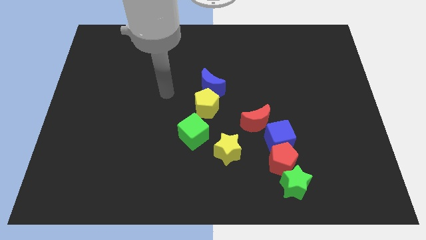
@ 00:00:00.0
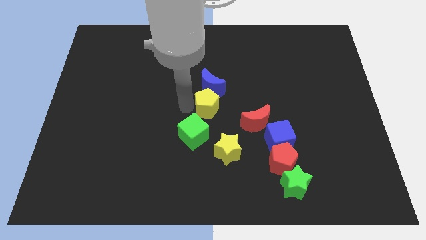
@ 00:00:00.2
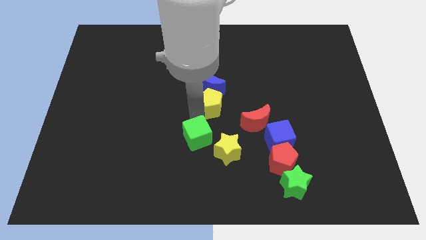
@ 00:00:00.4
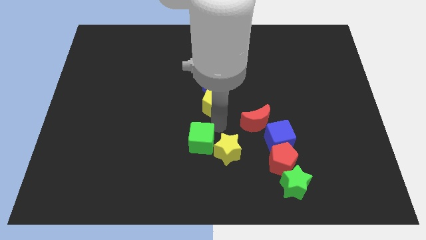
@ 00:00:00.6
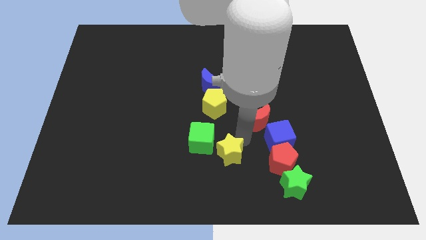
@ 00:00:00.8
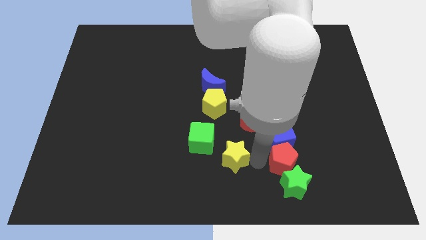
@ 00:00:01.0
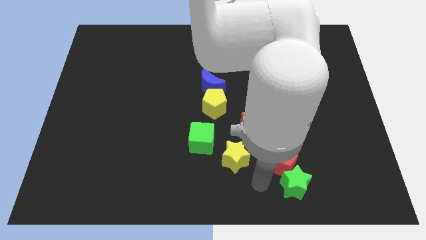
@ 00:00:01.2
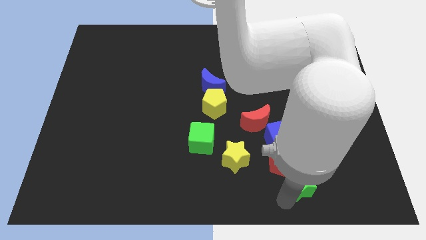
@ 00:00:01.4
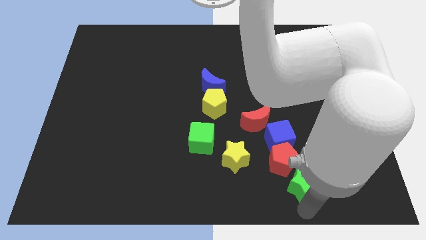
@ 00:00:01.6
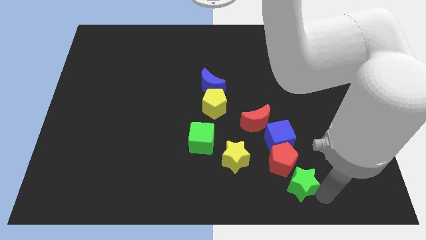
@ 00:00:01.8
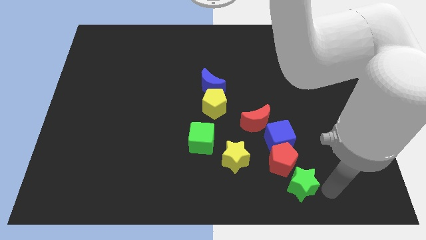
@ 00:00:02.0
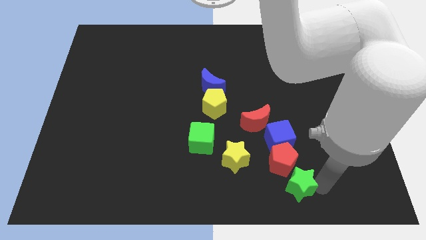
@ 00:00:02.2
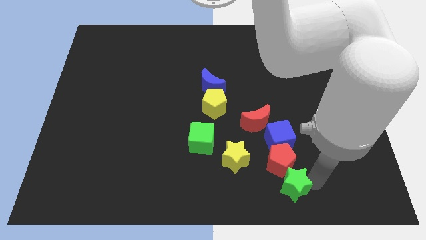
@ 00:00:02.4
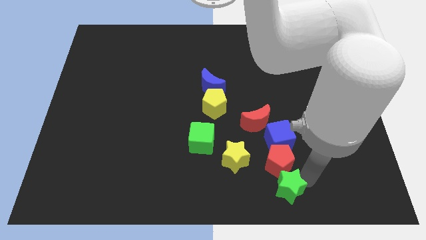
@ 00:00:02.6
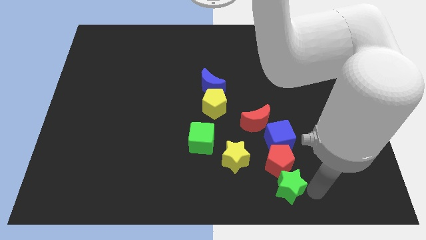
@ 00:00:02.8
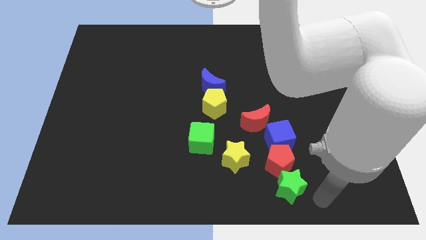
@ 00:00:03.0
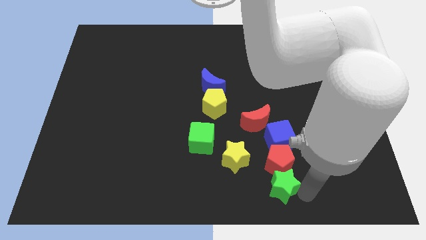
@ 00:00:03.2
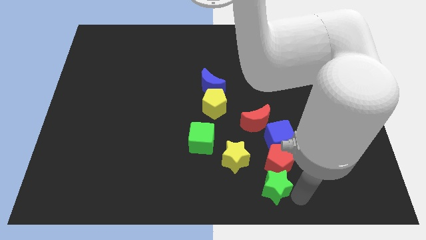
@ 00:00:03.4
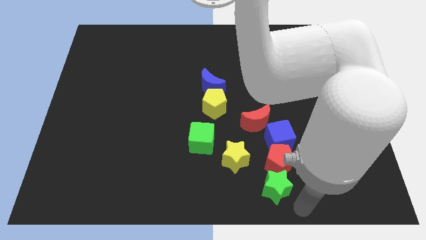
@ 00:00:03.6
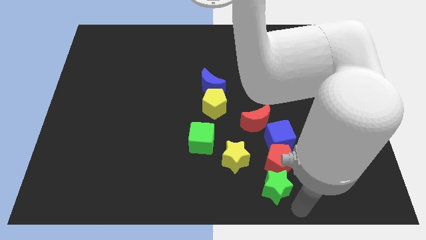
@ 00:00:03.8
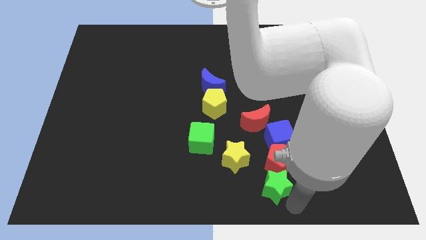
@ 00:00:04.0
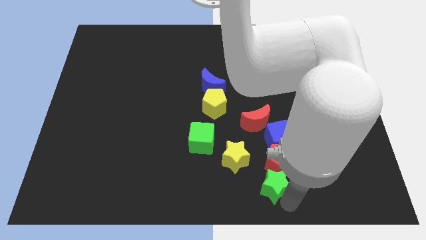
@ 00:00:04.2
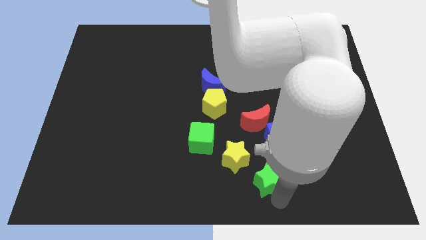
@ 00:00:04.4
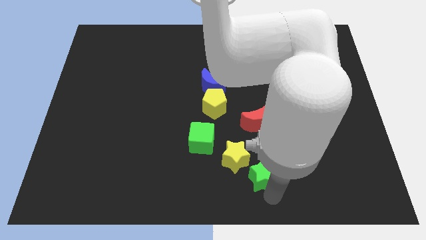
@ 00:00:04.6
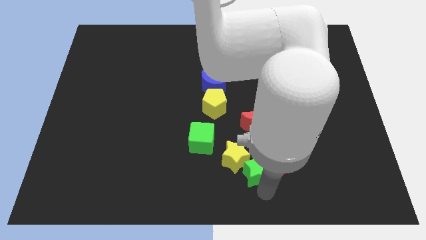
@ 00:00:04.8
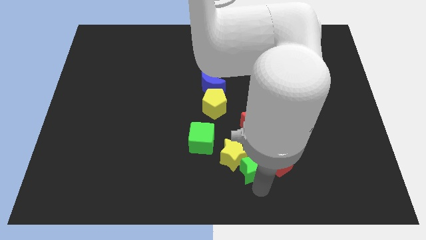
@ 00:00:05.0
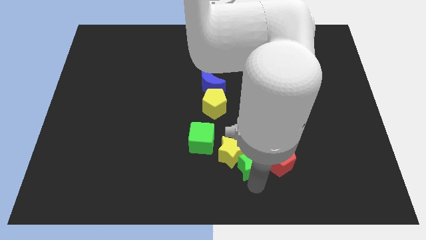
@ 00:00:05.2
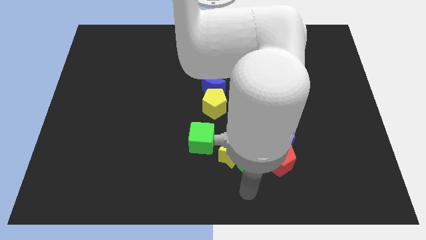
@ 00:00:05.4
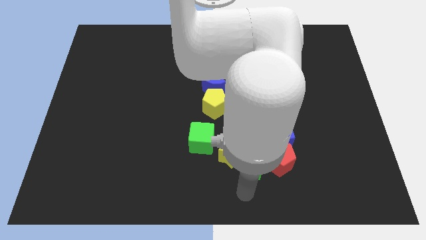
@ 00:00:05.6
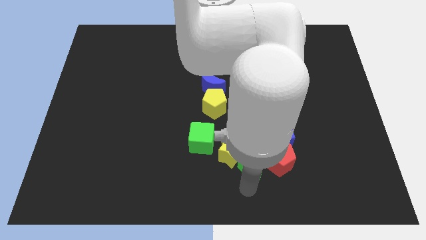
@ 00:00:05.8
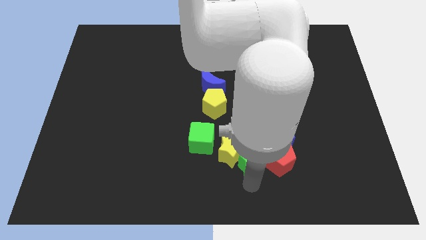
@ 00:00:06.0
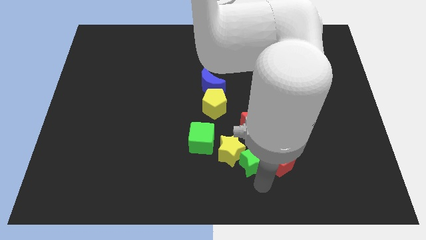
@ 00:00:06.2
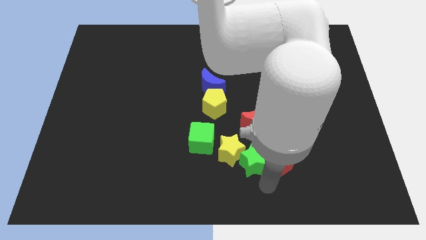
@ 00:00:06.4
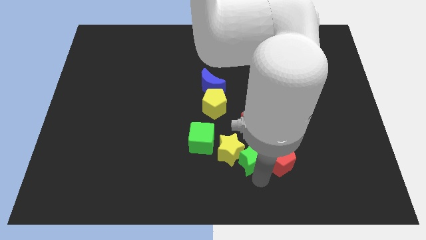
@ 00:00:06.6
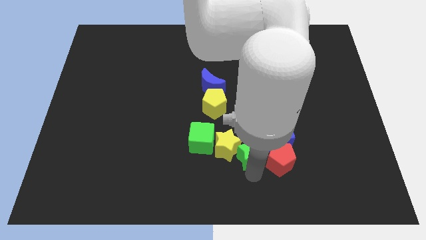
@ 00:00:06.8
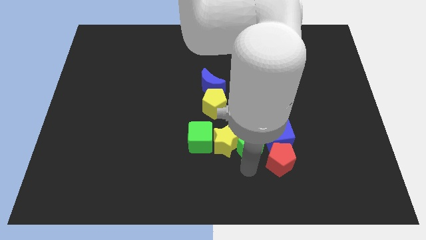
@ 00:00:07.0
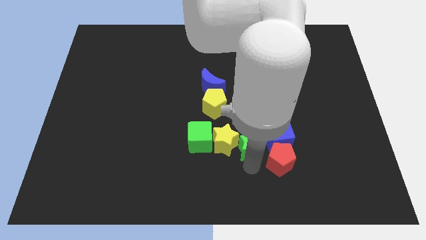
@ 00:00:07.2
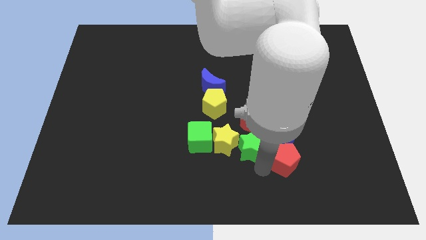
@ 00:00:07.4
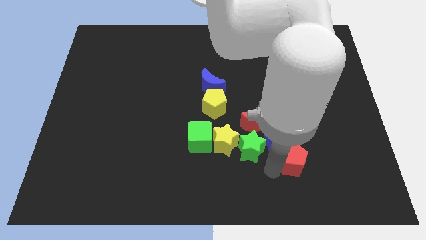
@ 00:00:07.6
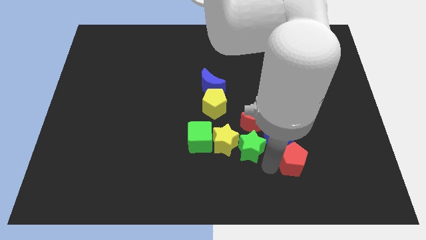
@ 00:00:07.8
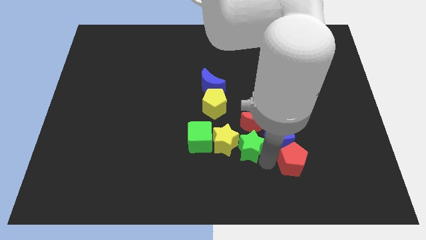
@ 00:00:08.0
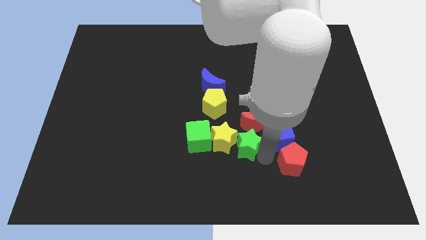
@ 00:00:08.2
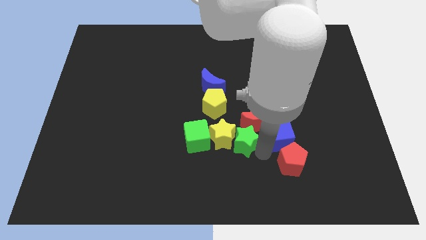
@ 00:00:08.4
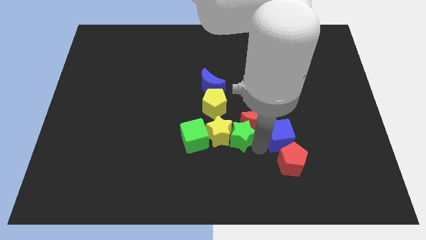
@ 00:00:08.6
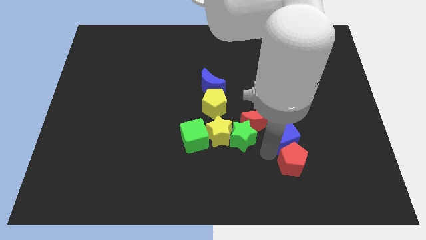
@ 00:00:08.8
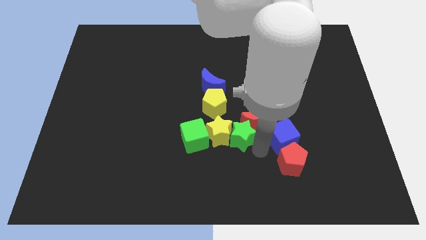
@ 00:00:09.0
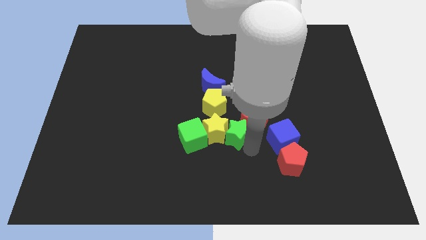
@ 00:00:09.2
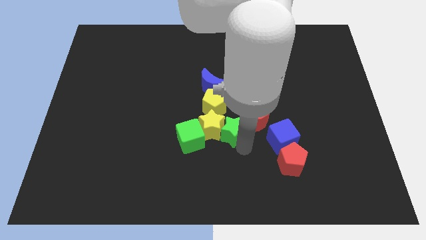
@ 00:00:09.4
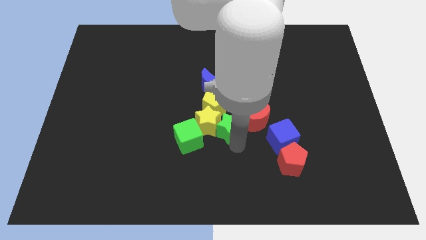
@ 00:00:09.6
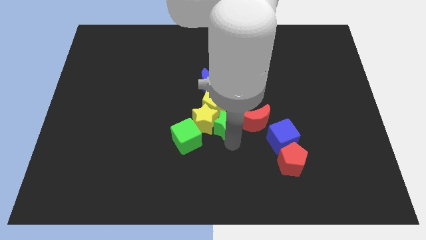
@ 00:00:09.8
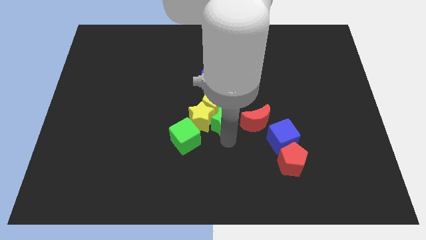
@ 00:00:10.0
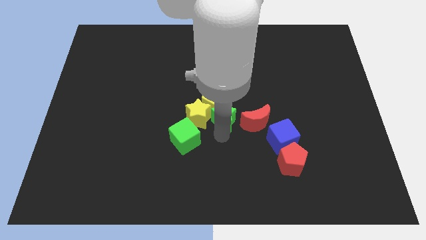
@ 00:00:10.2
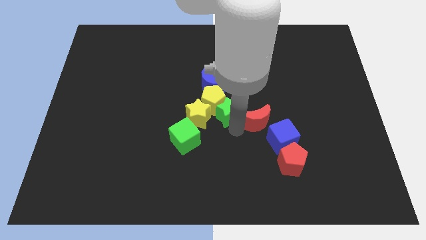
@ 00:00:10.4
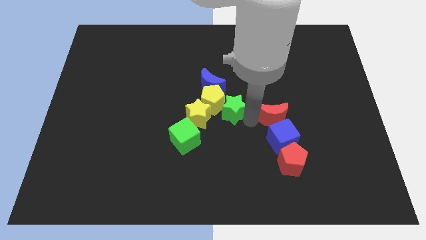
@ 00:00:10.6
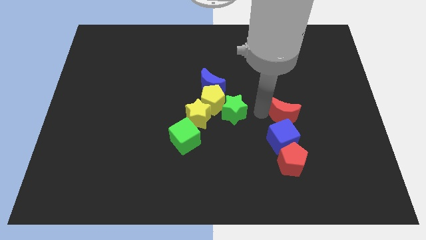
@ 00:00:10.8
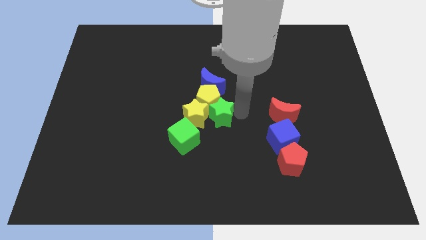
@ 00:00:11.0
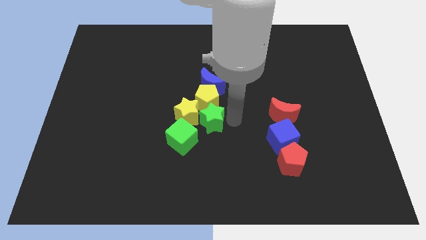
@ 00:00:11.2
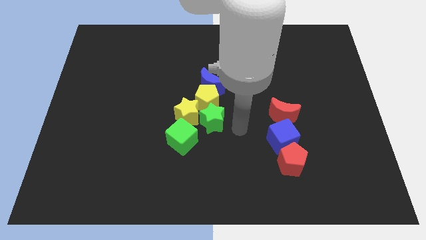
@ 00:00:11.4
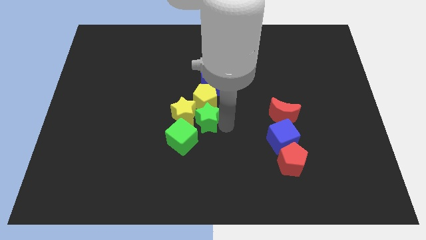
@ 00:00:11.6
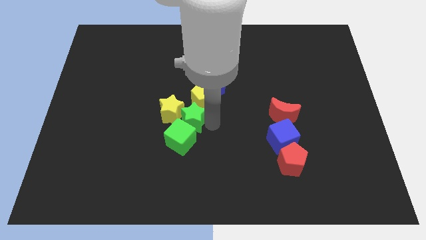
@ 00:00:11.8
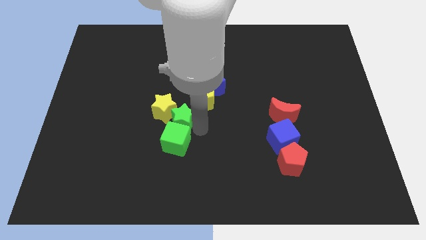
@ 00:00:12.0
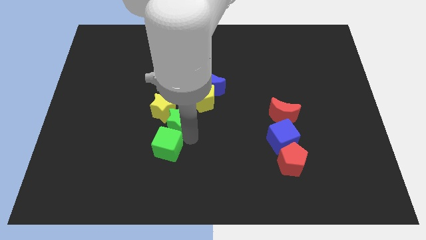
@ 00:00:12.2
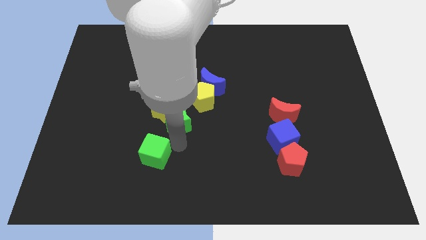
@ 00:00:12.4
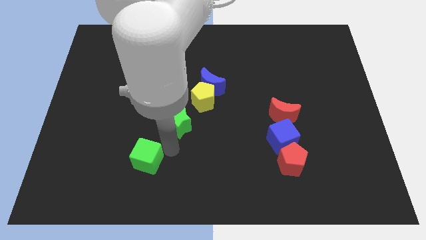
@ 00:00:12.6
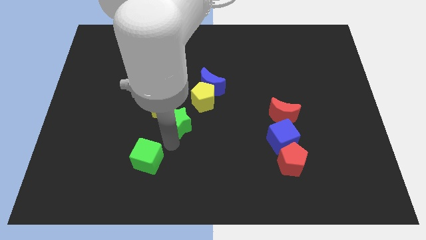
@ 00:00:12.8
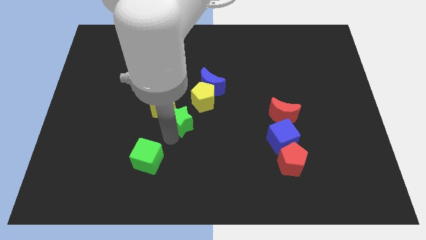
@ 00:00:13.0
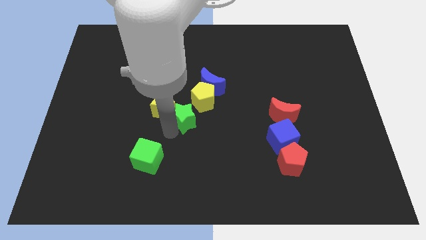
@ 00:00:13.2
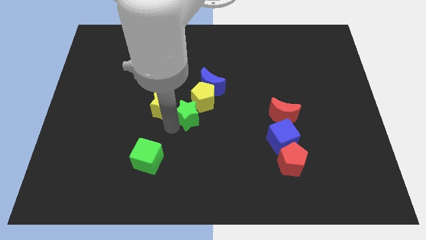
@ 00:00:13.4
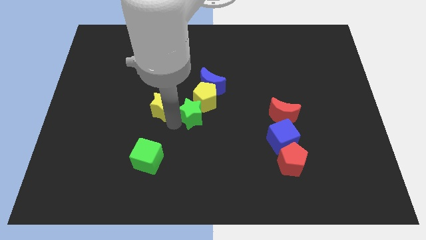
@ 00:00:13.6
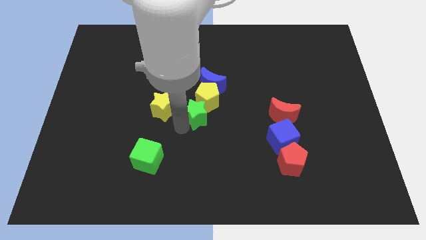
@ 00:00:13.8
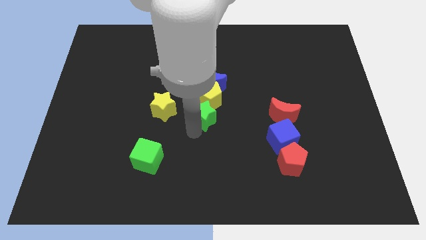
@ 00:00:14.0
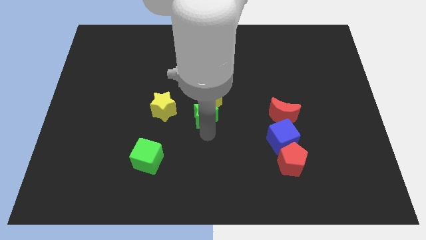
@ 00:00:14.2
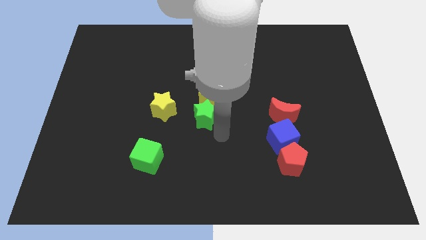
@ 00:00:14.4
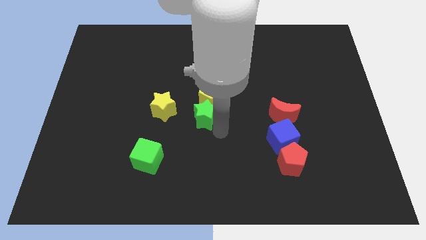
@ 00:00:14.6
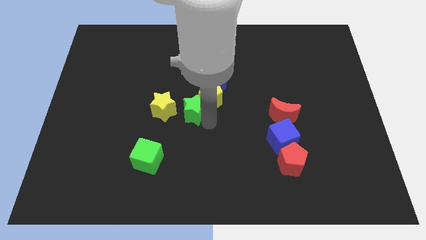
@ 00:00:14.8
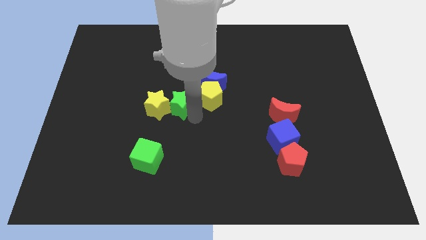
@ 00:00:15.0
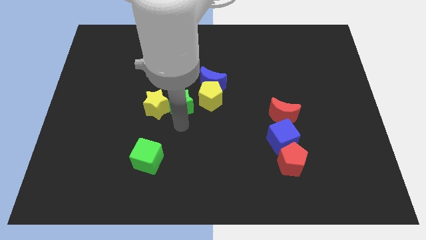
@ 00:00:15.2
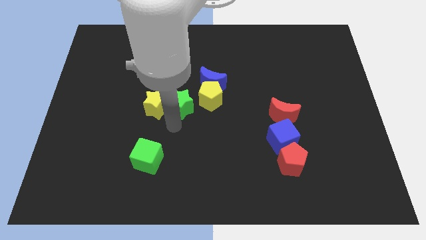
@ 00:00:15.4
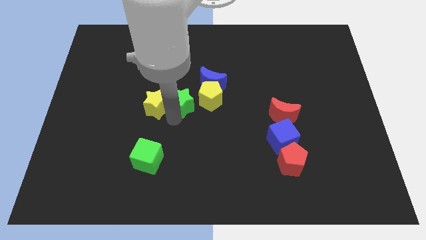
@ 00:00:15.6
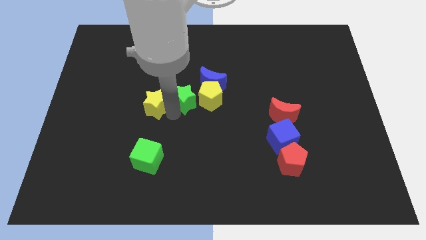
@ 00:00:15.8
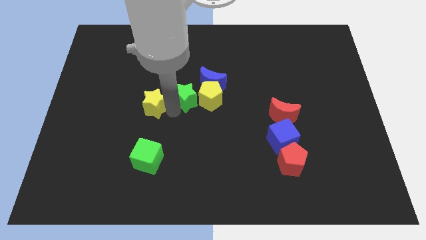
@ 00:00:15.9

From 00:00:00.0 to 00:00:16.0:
slide the green star to the top left of the yellow pentagon
